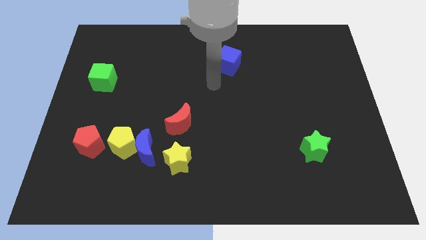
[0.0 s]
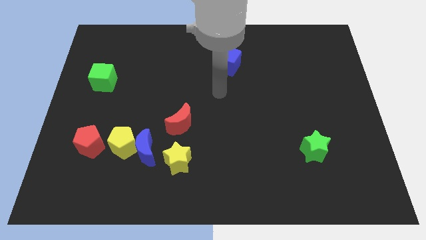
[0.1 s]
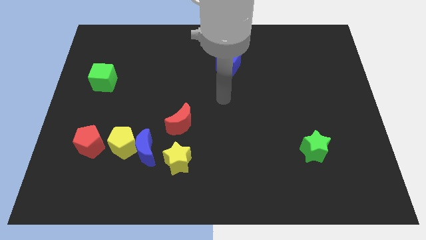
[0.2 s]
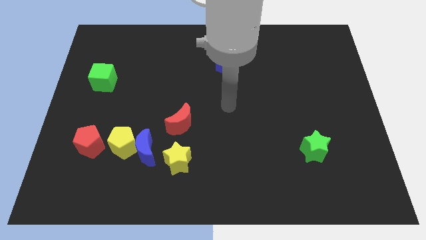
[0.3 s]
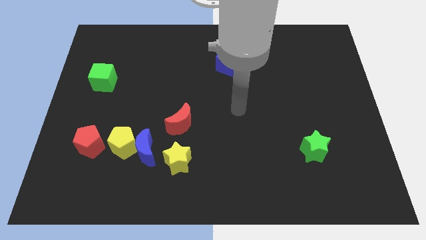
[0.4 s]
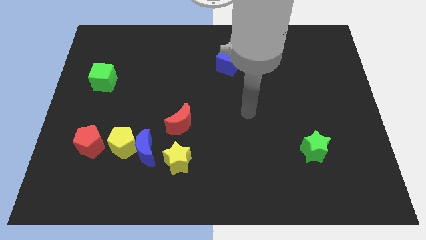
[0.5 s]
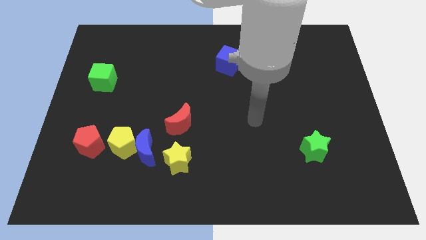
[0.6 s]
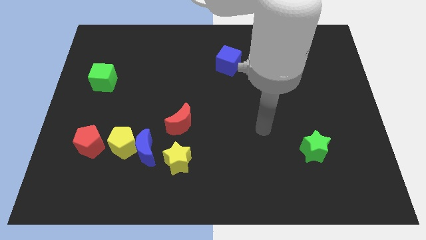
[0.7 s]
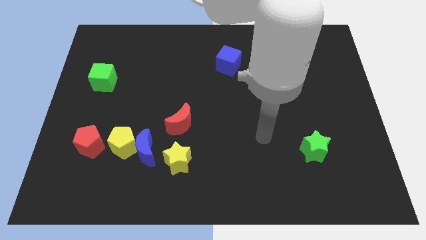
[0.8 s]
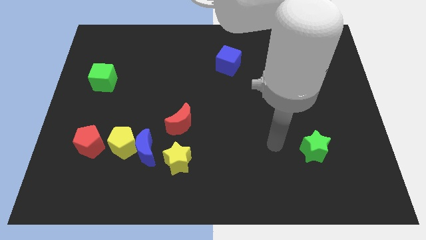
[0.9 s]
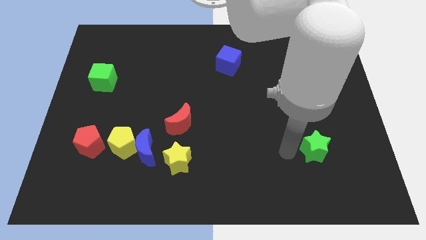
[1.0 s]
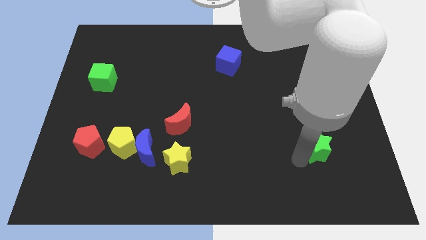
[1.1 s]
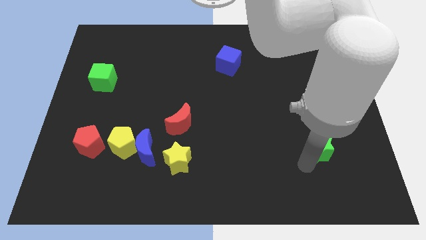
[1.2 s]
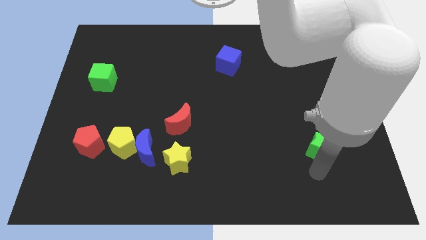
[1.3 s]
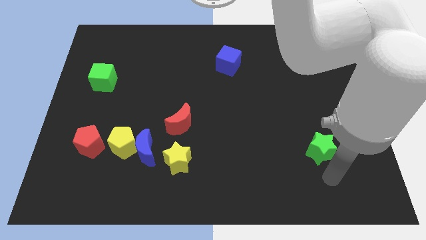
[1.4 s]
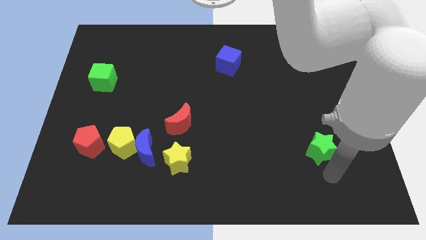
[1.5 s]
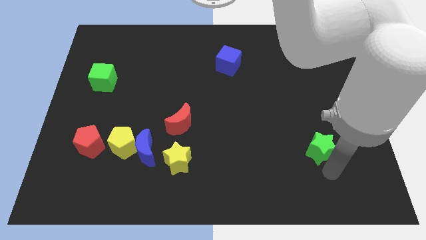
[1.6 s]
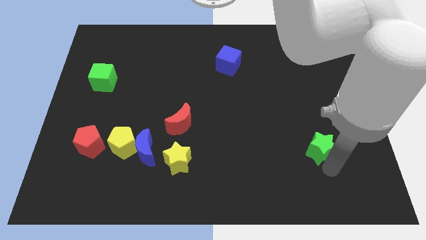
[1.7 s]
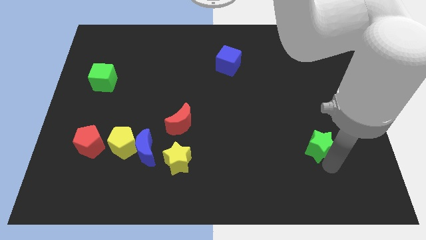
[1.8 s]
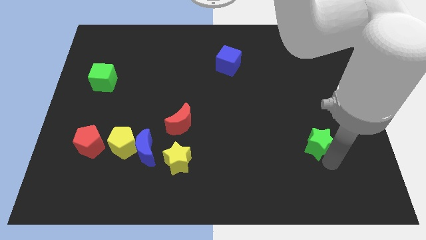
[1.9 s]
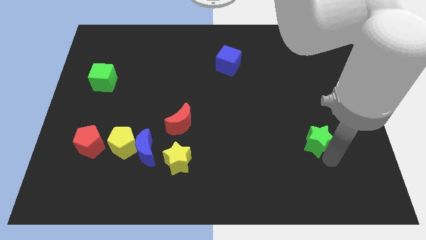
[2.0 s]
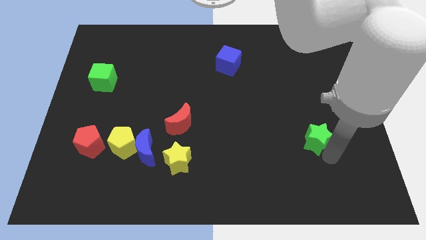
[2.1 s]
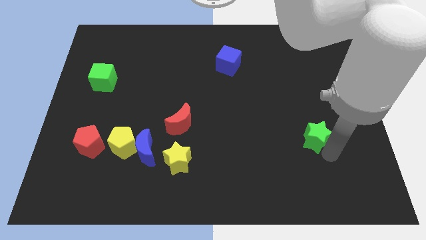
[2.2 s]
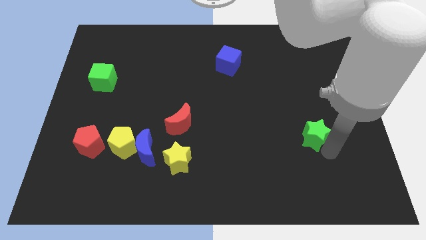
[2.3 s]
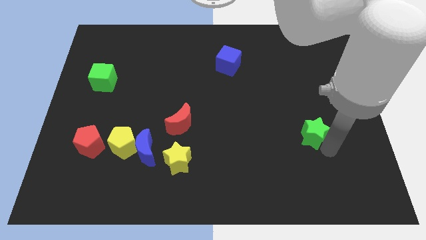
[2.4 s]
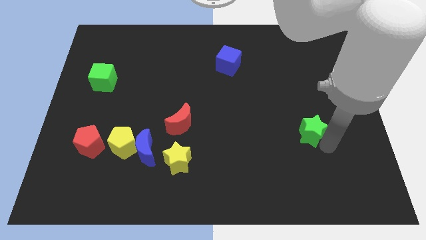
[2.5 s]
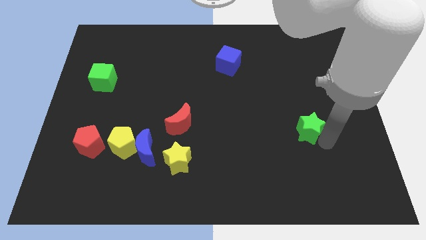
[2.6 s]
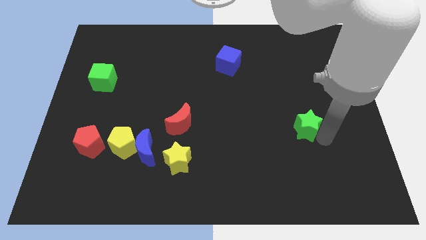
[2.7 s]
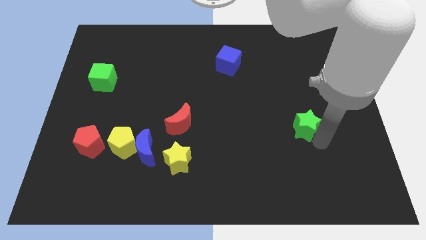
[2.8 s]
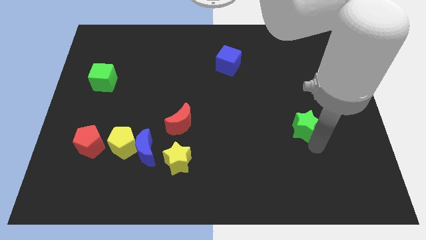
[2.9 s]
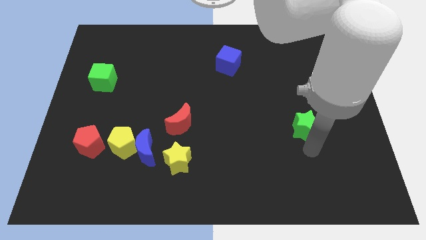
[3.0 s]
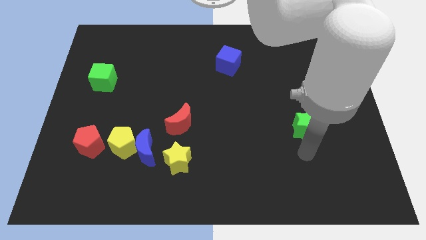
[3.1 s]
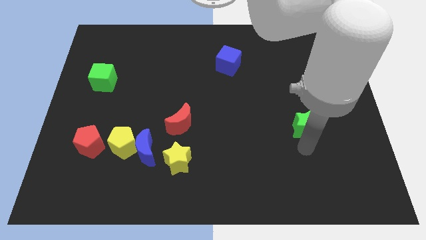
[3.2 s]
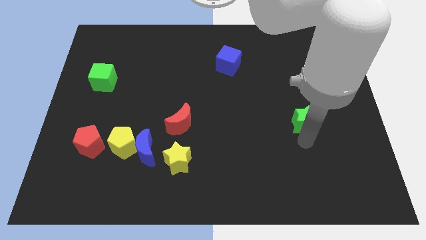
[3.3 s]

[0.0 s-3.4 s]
slightly slide the green star upwards

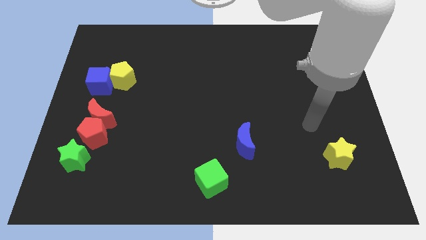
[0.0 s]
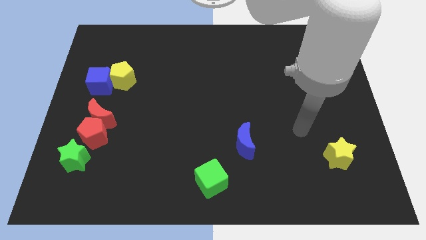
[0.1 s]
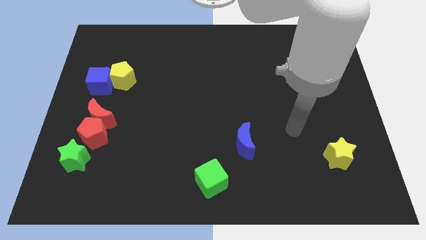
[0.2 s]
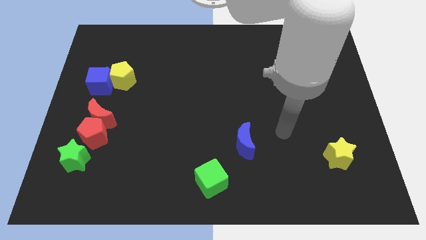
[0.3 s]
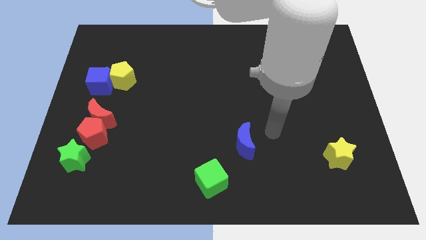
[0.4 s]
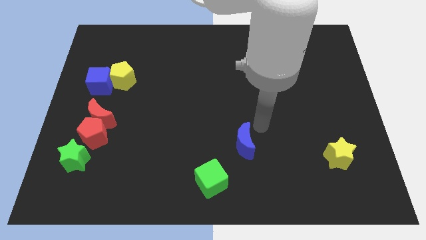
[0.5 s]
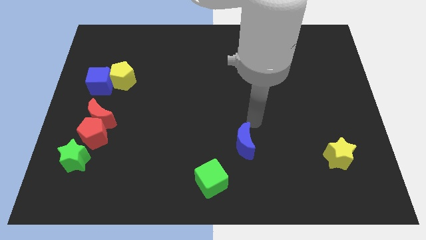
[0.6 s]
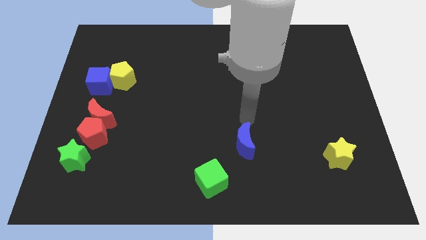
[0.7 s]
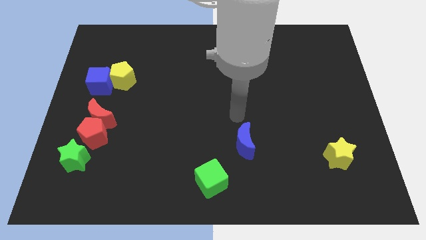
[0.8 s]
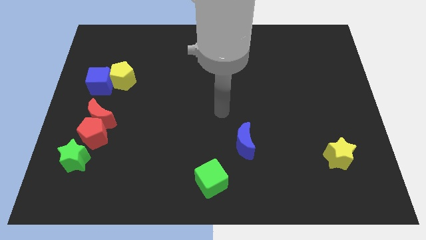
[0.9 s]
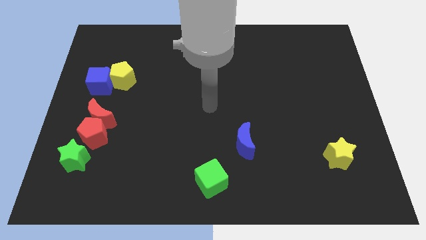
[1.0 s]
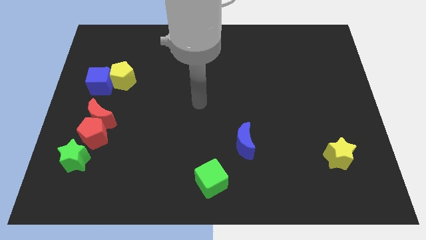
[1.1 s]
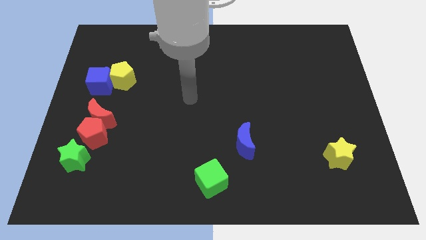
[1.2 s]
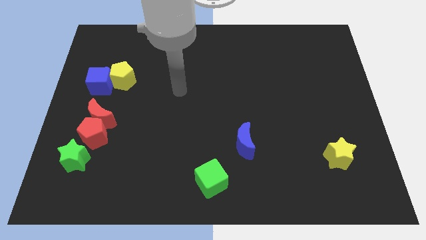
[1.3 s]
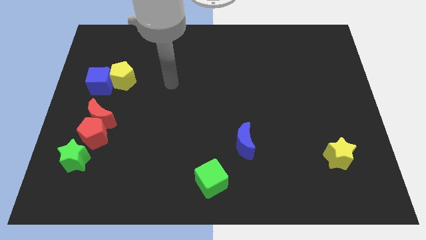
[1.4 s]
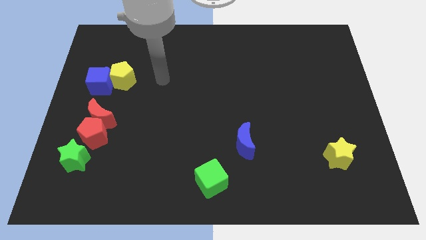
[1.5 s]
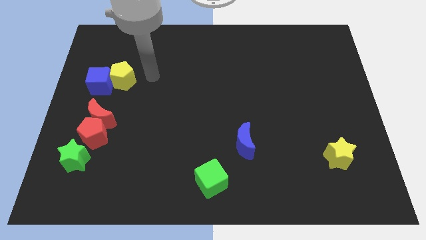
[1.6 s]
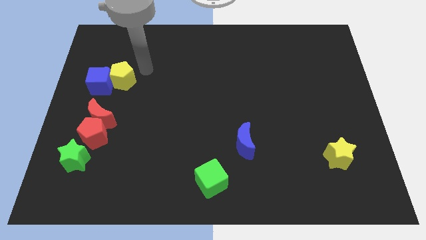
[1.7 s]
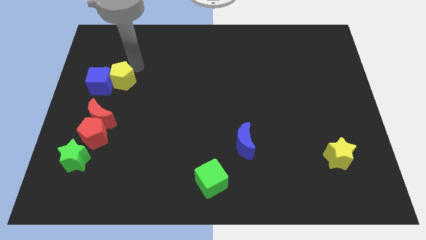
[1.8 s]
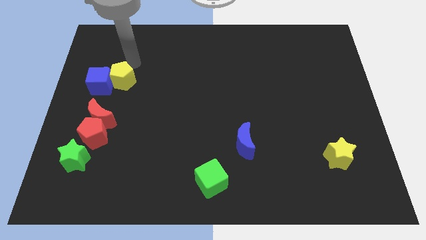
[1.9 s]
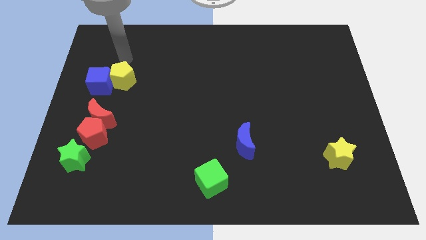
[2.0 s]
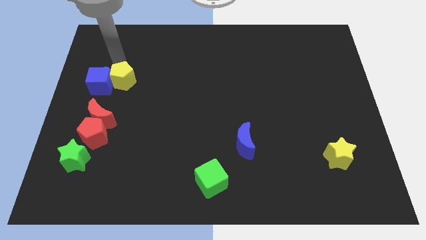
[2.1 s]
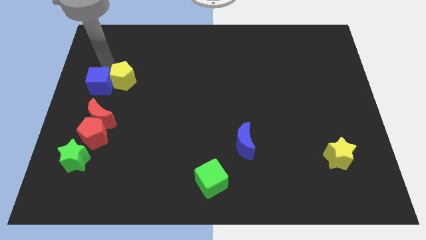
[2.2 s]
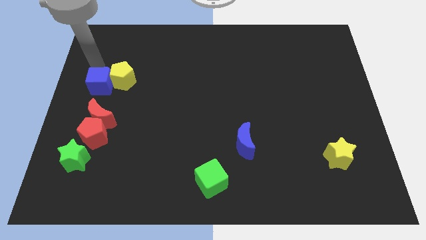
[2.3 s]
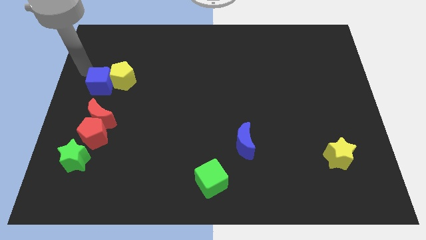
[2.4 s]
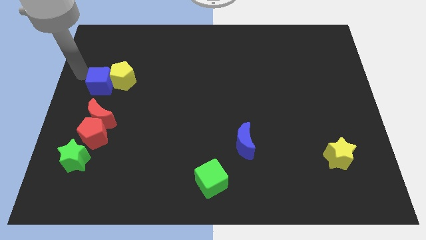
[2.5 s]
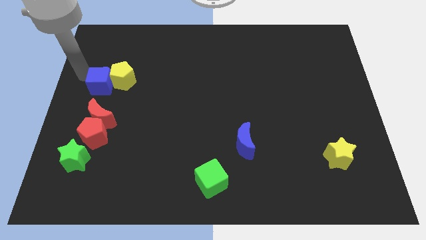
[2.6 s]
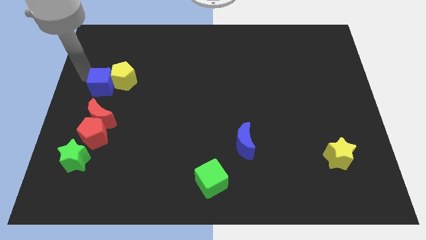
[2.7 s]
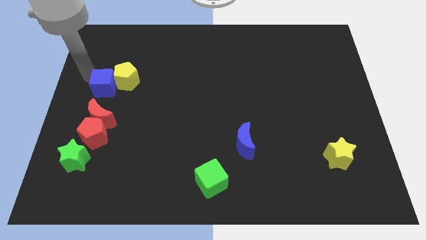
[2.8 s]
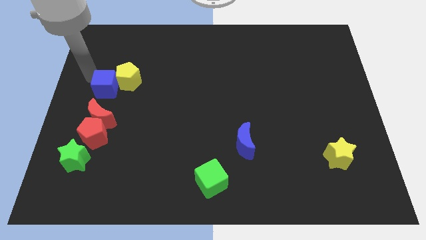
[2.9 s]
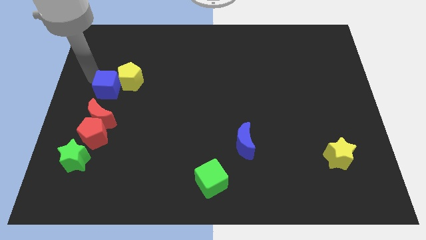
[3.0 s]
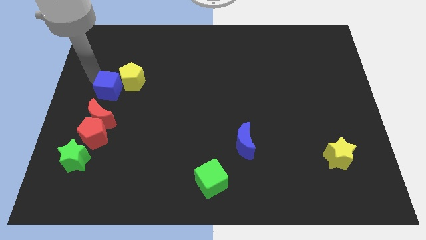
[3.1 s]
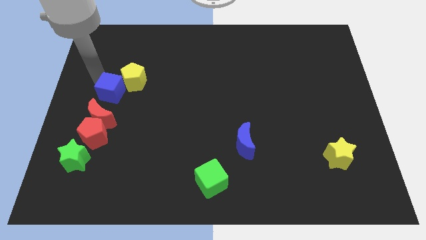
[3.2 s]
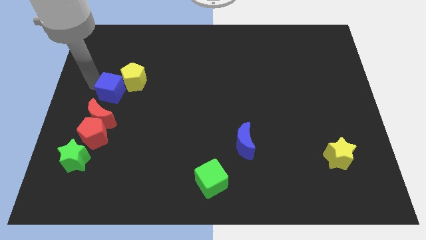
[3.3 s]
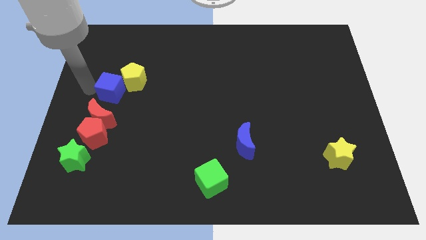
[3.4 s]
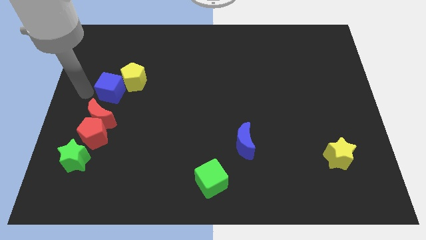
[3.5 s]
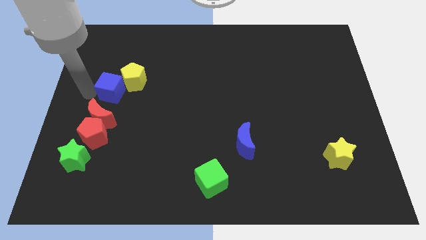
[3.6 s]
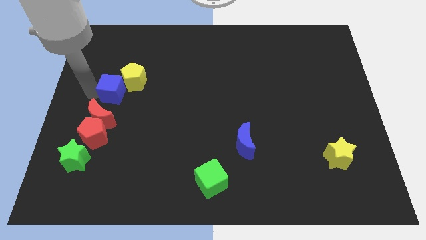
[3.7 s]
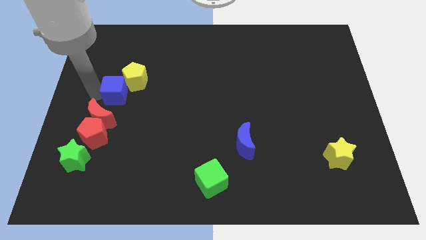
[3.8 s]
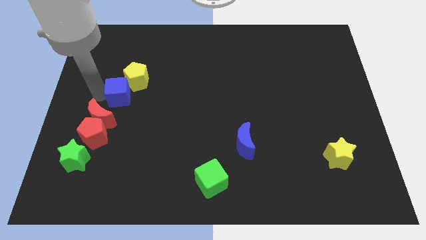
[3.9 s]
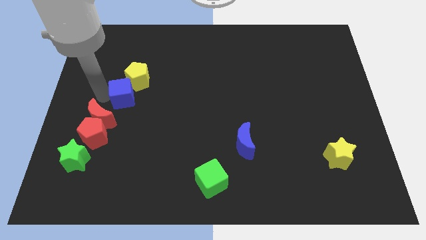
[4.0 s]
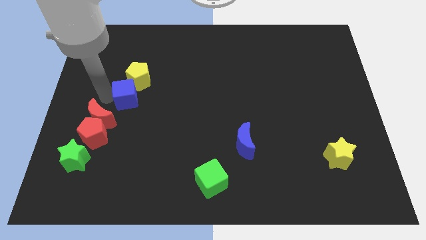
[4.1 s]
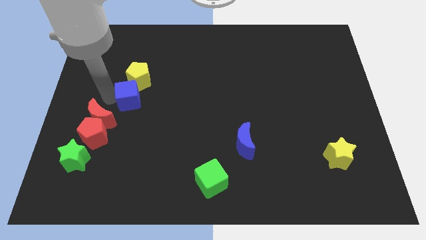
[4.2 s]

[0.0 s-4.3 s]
slide the blue cube somewhat right

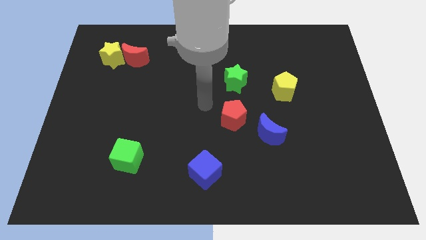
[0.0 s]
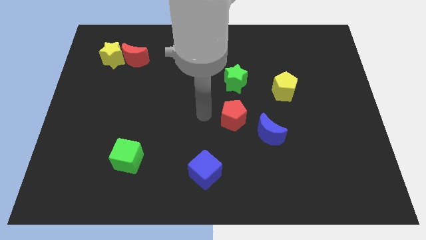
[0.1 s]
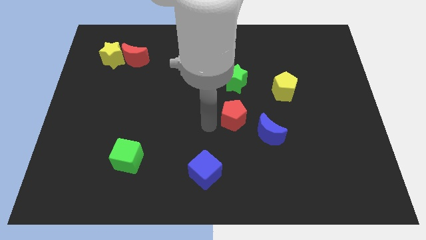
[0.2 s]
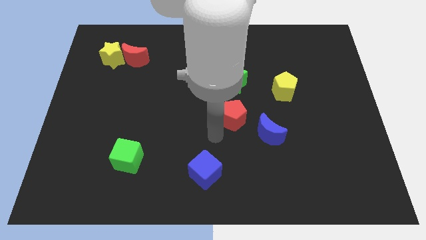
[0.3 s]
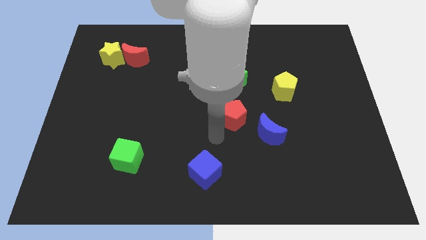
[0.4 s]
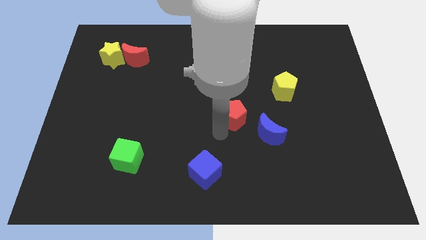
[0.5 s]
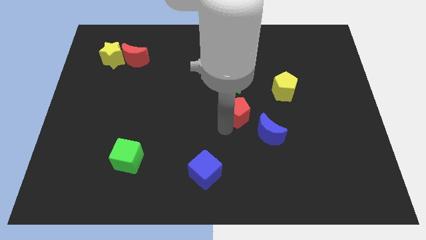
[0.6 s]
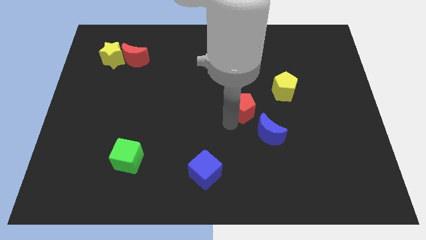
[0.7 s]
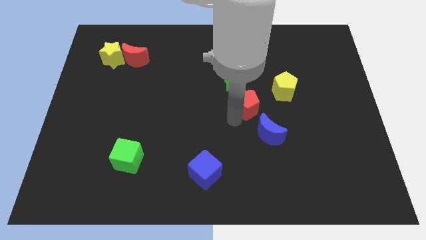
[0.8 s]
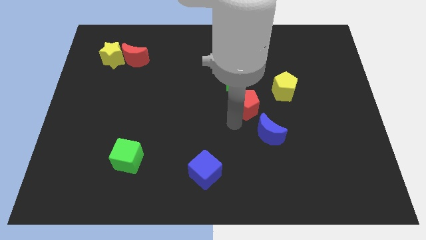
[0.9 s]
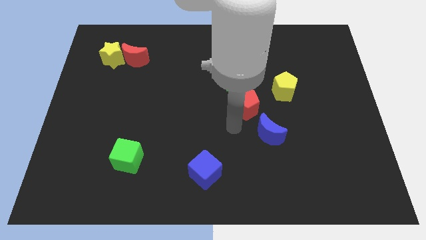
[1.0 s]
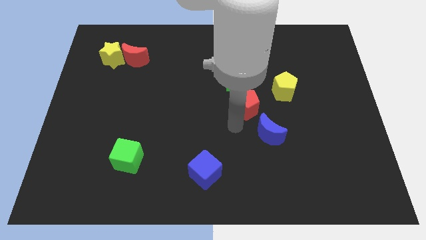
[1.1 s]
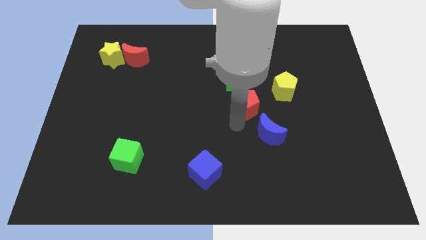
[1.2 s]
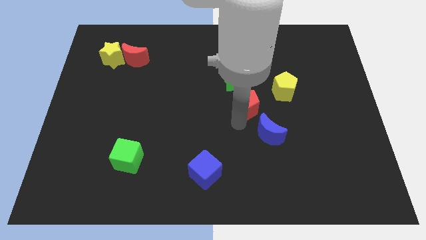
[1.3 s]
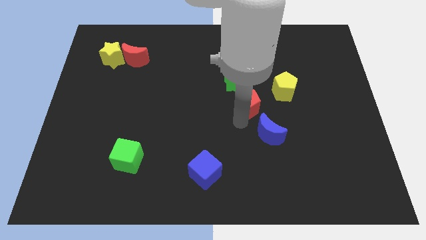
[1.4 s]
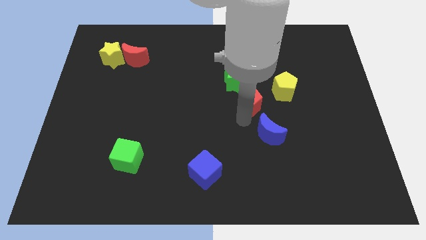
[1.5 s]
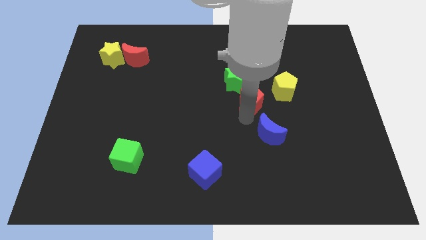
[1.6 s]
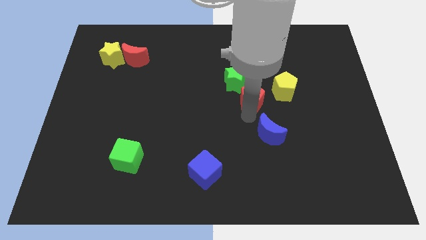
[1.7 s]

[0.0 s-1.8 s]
move the red pentagon upwards and then right a little bit
